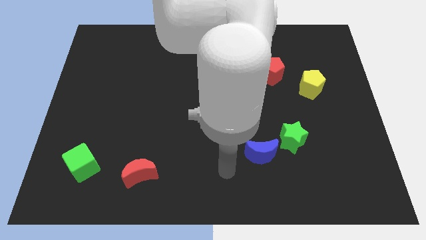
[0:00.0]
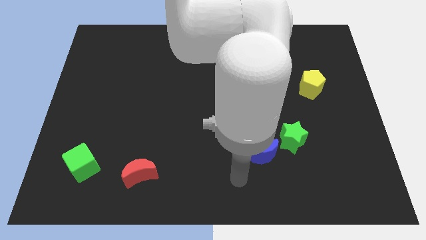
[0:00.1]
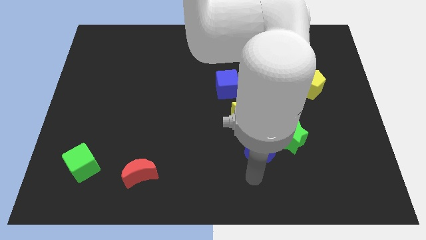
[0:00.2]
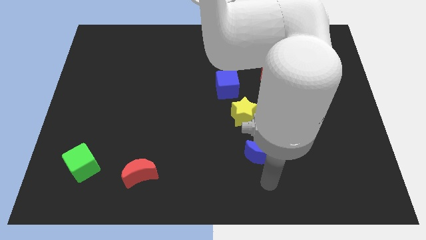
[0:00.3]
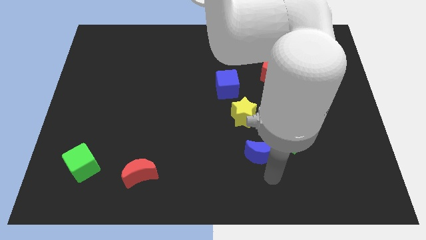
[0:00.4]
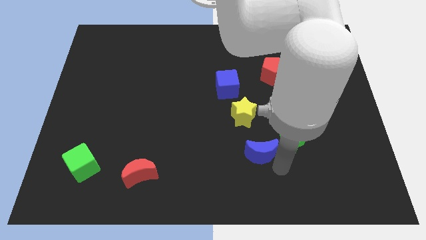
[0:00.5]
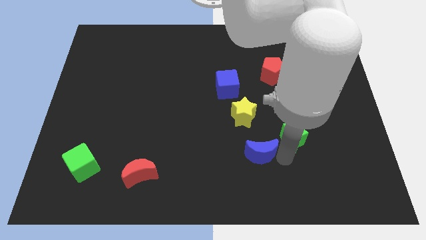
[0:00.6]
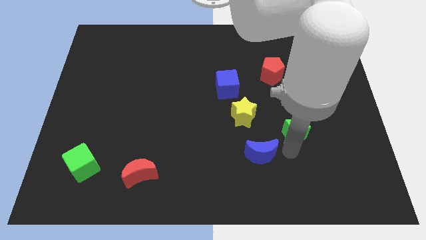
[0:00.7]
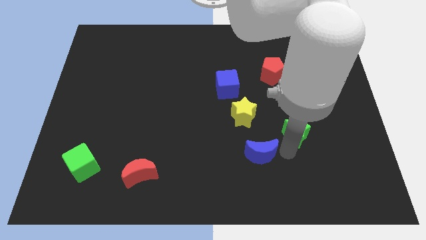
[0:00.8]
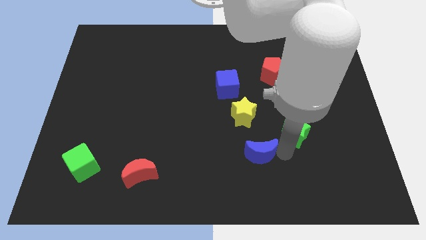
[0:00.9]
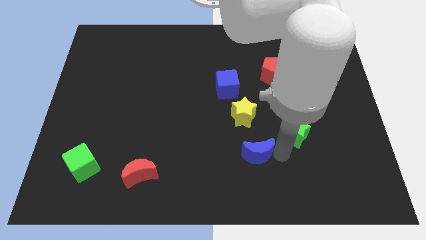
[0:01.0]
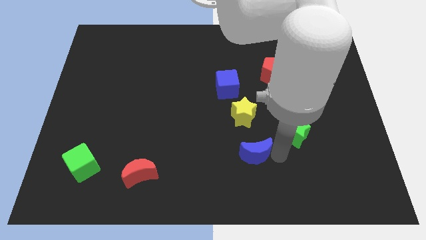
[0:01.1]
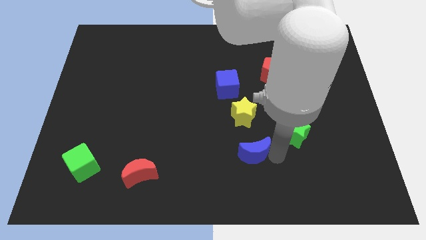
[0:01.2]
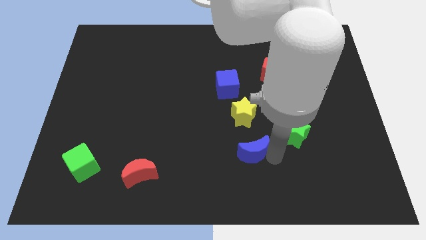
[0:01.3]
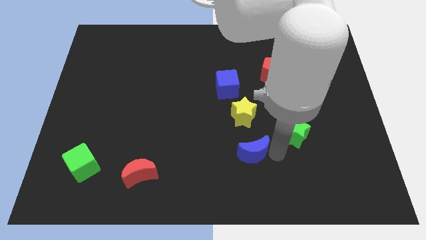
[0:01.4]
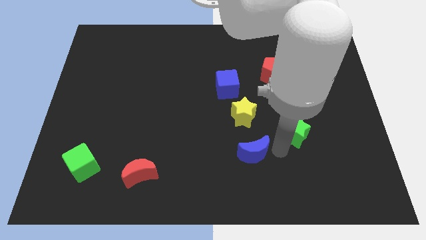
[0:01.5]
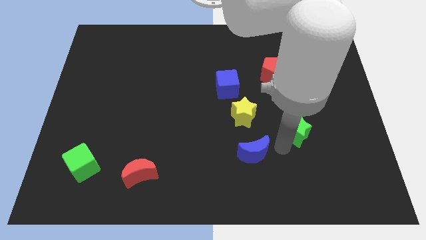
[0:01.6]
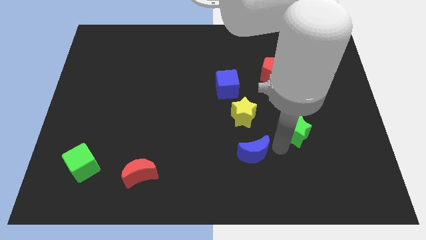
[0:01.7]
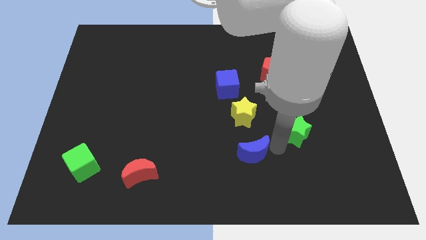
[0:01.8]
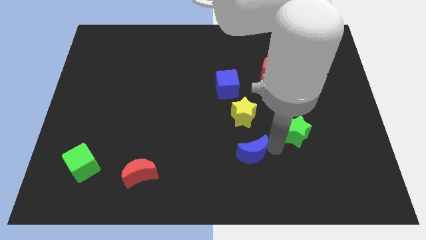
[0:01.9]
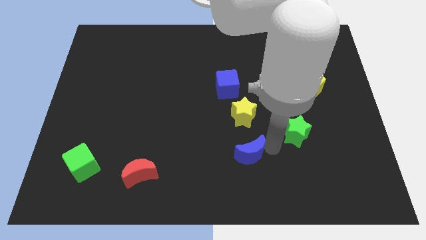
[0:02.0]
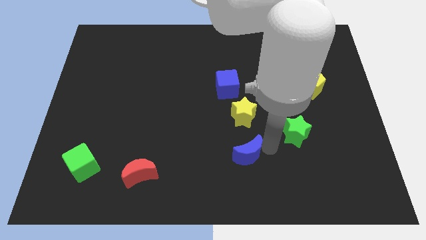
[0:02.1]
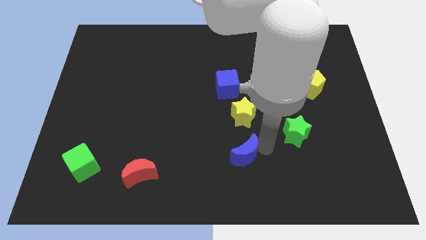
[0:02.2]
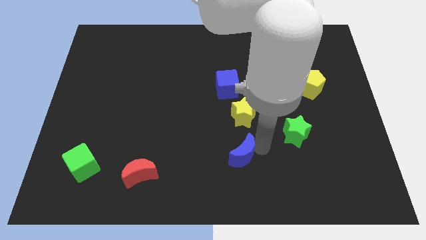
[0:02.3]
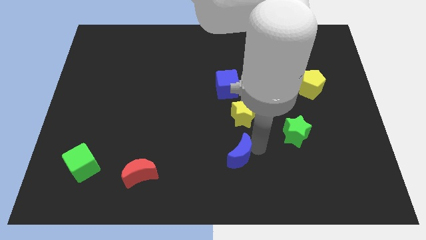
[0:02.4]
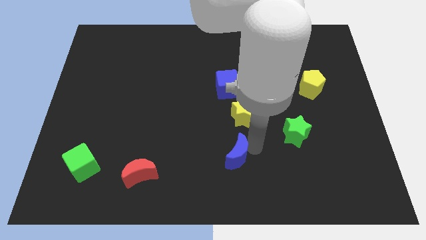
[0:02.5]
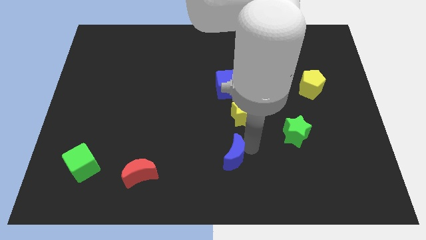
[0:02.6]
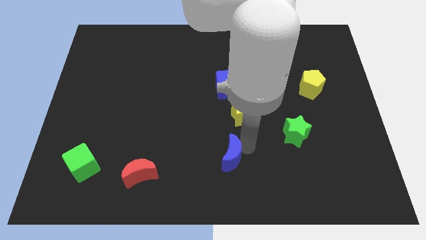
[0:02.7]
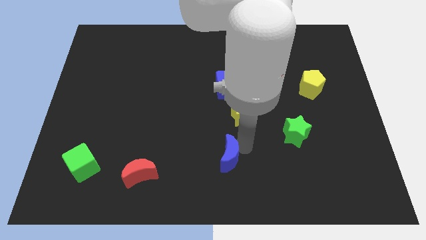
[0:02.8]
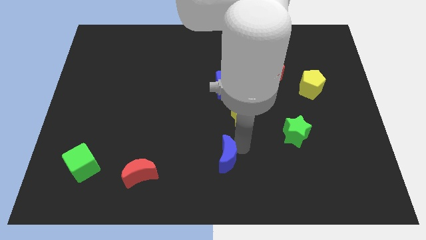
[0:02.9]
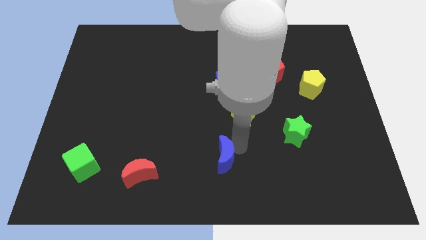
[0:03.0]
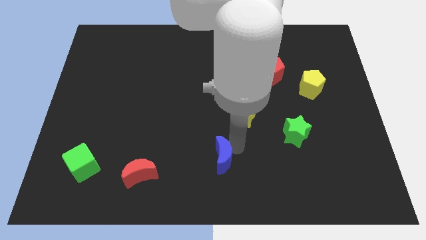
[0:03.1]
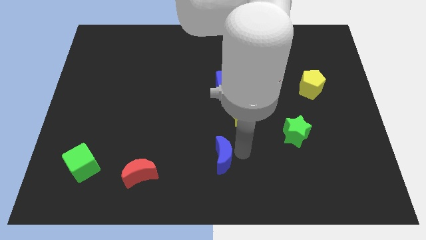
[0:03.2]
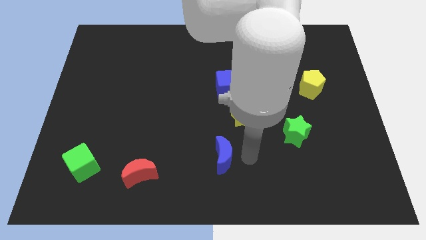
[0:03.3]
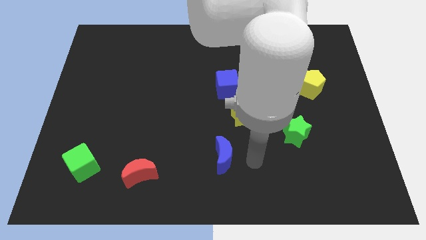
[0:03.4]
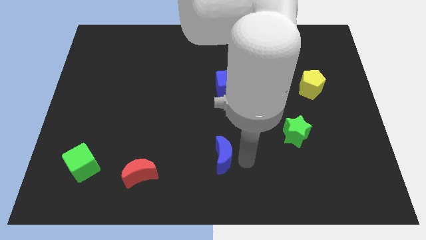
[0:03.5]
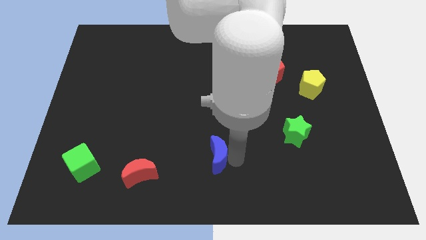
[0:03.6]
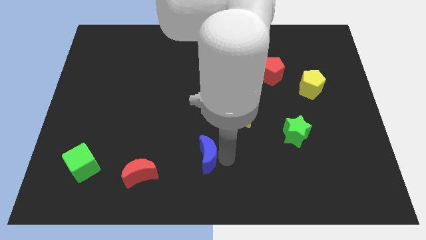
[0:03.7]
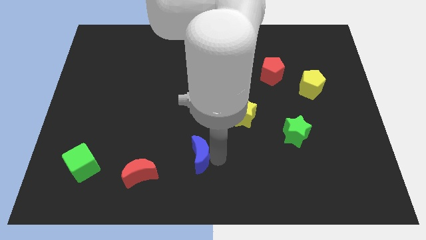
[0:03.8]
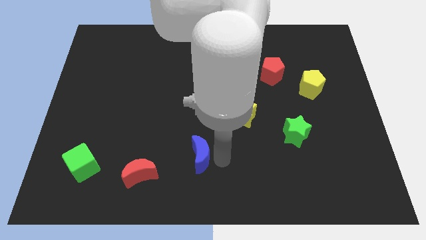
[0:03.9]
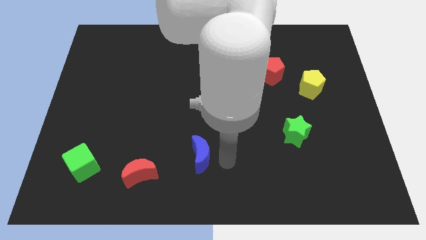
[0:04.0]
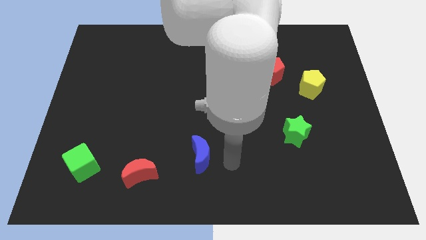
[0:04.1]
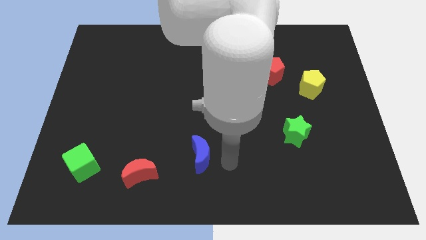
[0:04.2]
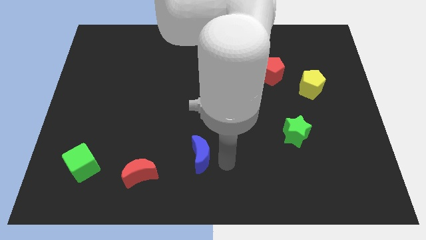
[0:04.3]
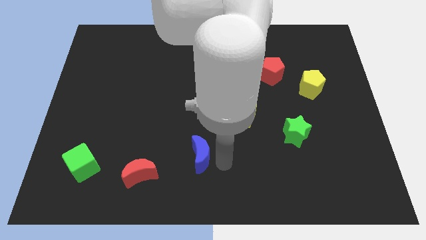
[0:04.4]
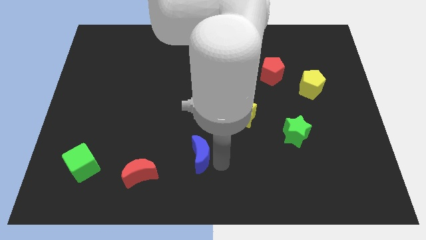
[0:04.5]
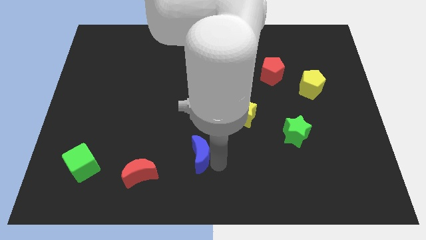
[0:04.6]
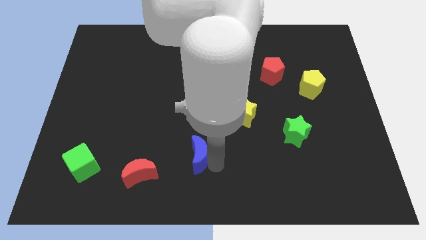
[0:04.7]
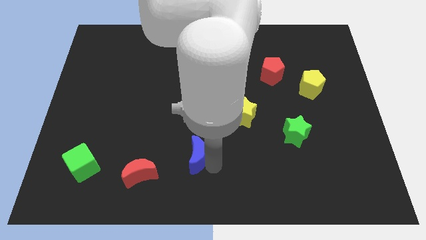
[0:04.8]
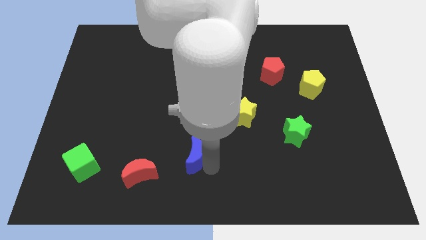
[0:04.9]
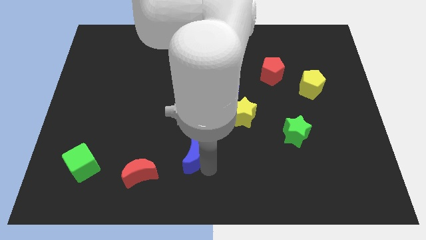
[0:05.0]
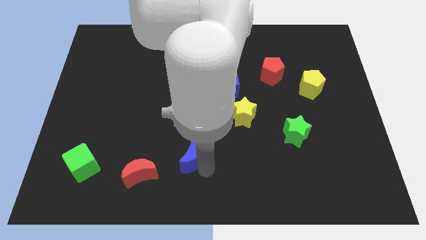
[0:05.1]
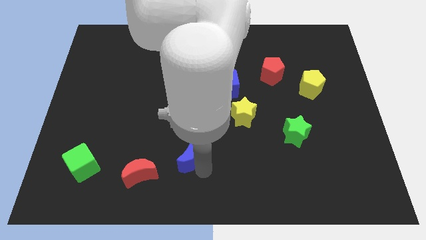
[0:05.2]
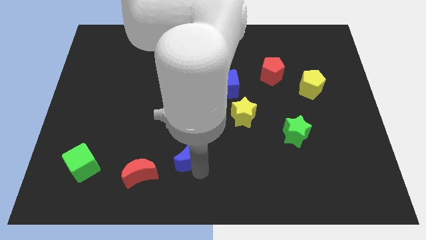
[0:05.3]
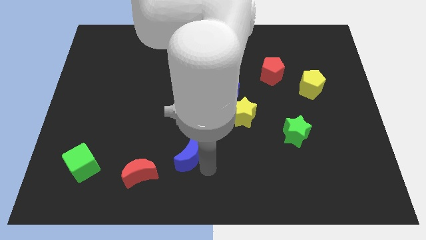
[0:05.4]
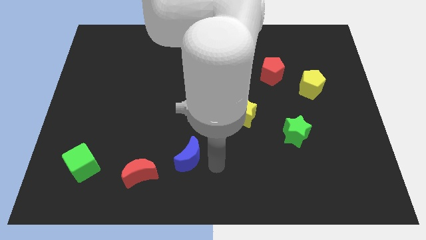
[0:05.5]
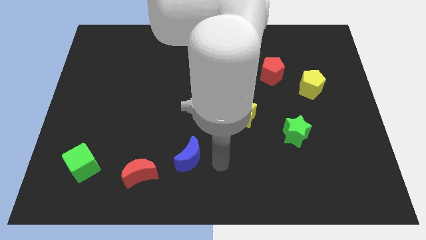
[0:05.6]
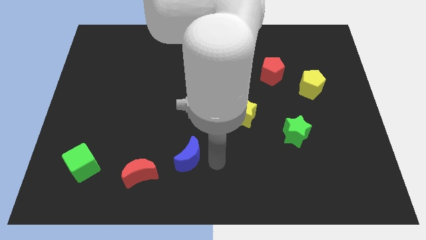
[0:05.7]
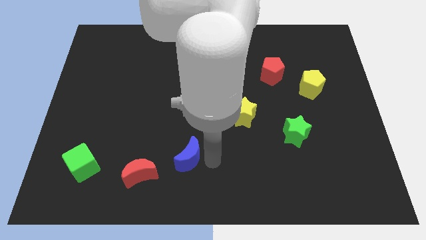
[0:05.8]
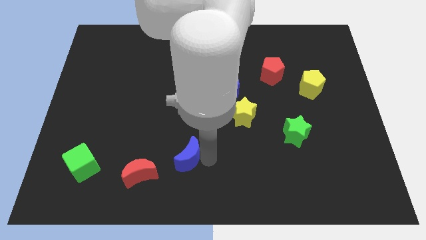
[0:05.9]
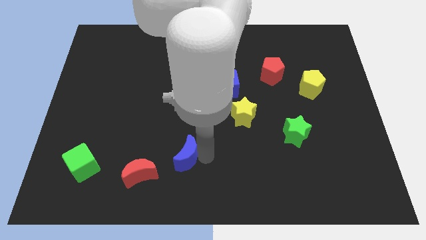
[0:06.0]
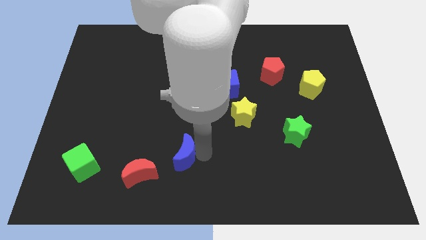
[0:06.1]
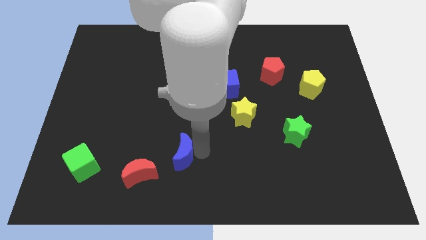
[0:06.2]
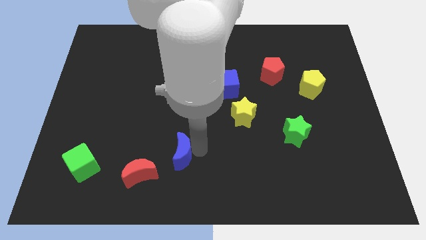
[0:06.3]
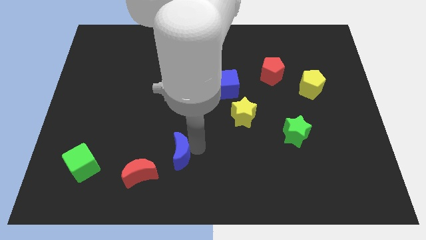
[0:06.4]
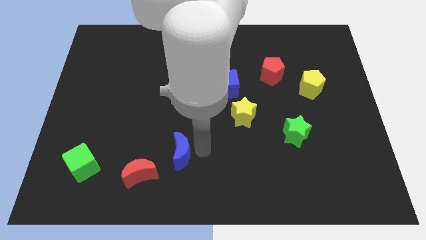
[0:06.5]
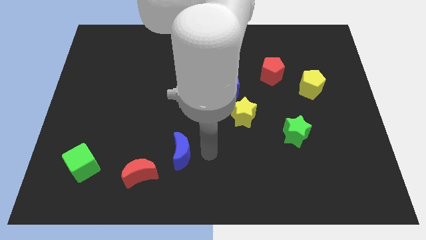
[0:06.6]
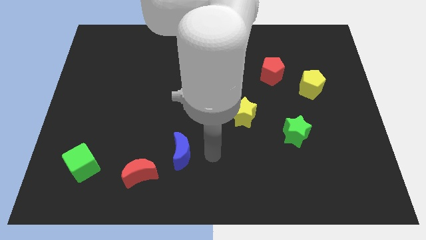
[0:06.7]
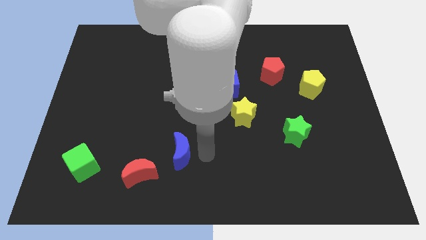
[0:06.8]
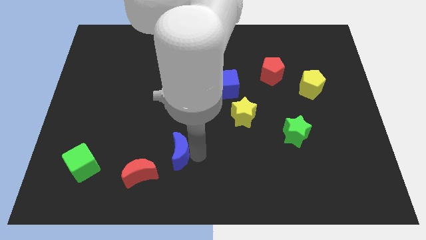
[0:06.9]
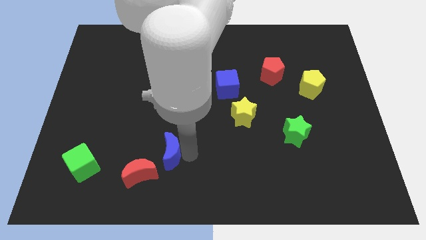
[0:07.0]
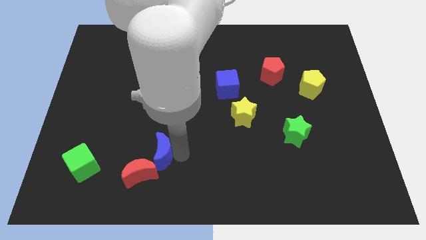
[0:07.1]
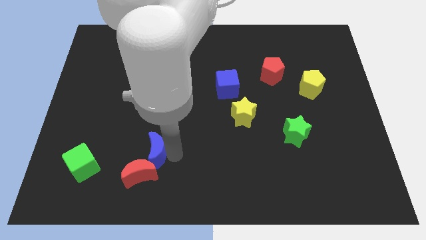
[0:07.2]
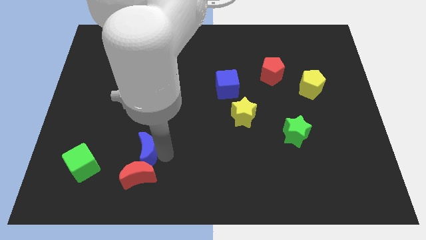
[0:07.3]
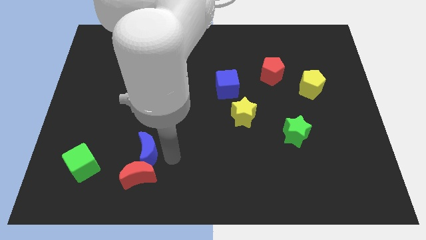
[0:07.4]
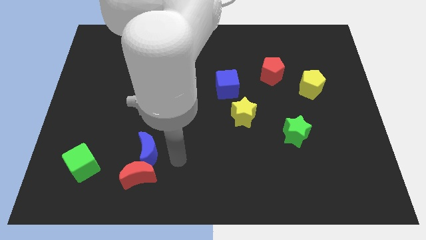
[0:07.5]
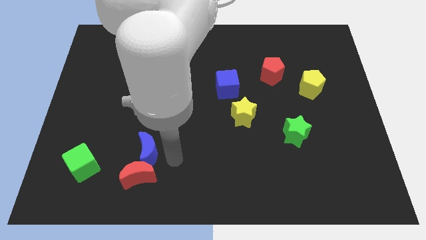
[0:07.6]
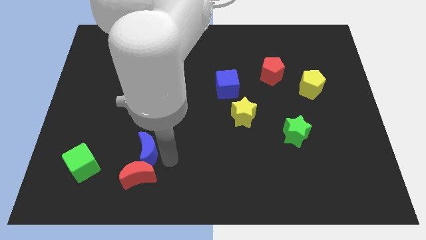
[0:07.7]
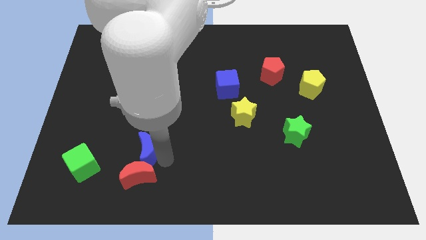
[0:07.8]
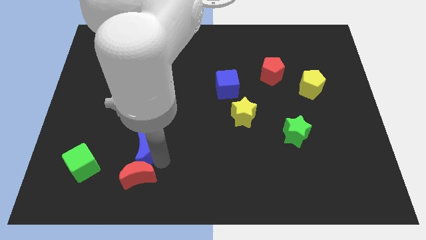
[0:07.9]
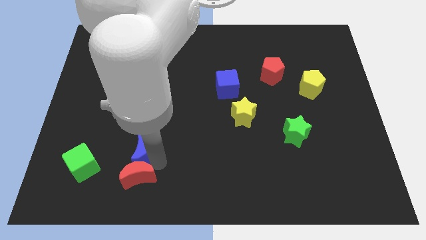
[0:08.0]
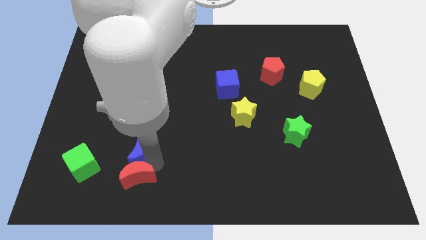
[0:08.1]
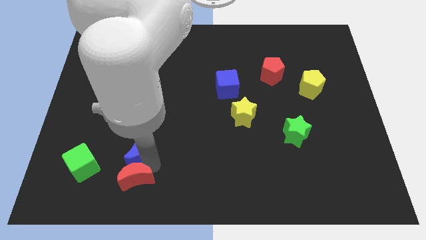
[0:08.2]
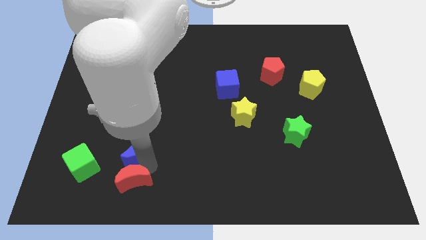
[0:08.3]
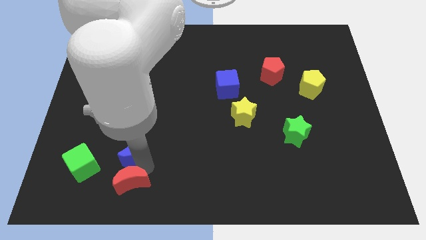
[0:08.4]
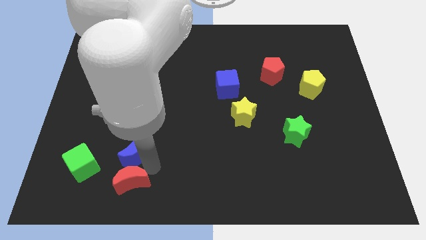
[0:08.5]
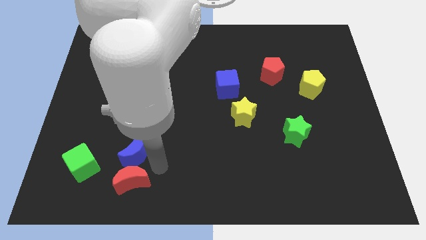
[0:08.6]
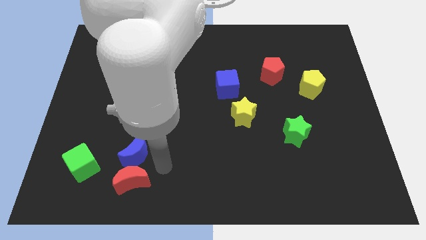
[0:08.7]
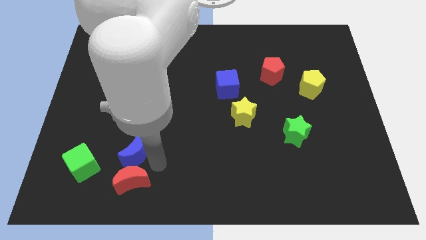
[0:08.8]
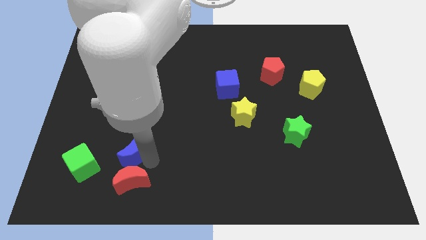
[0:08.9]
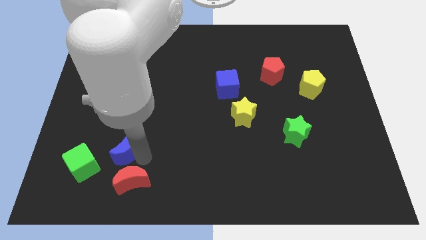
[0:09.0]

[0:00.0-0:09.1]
move the blue moon to the top right side of the green cube
